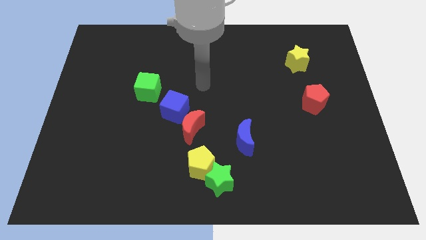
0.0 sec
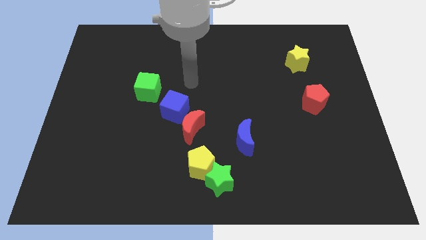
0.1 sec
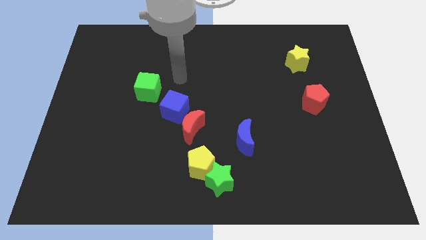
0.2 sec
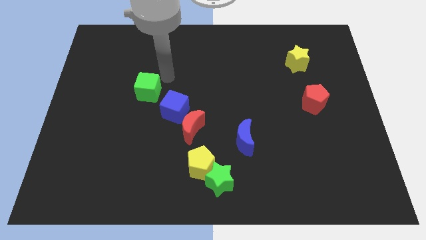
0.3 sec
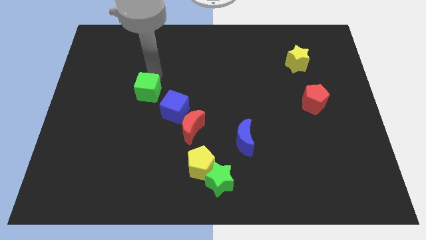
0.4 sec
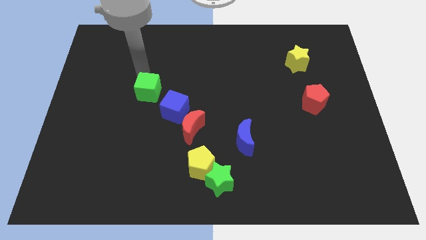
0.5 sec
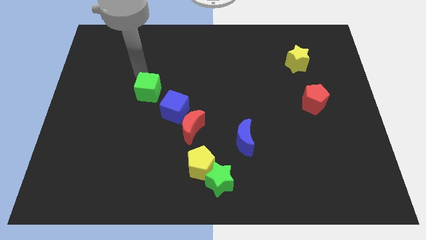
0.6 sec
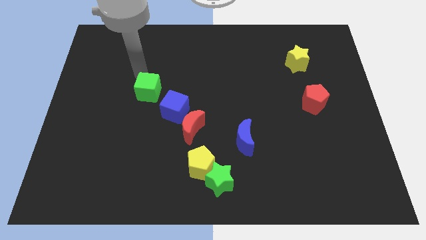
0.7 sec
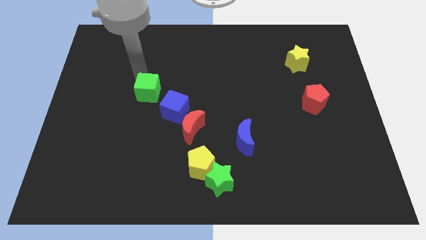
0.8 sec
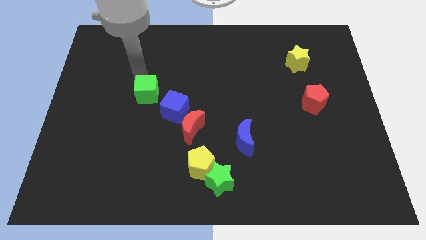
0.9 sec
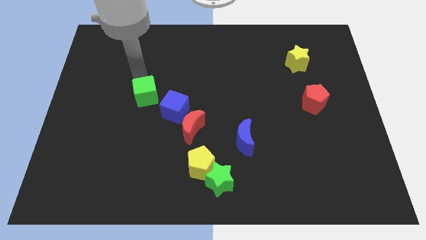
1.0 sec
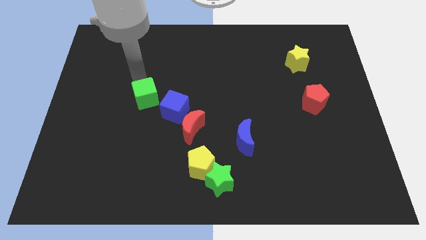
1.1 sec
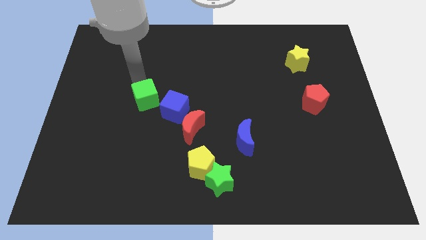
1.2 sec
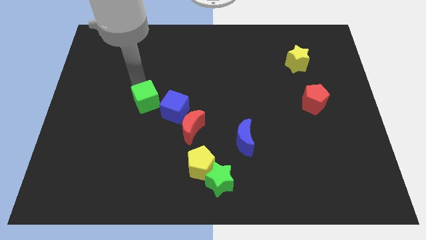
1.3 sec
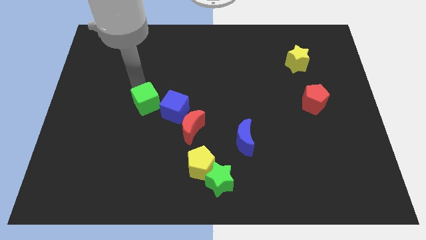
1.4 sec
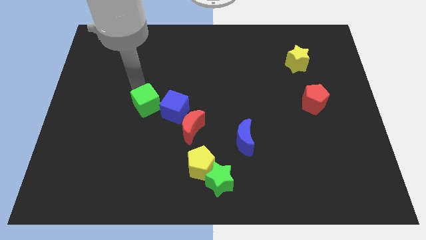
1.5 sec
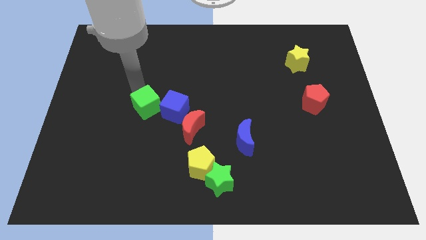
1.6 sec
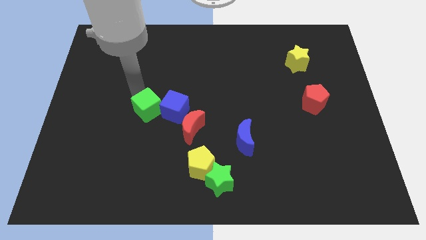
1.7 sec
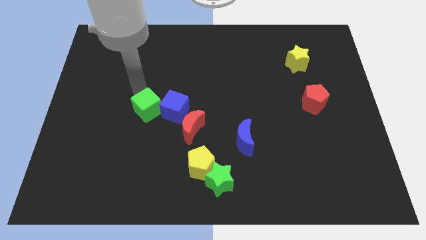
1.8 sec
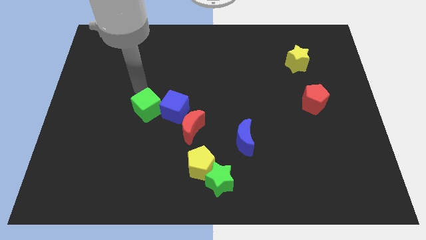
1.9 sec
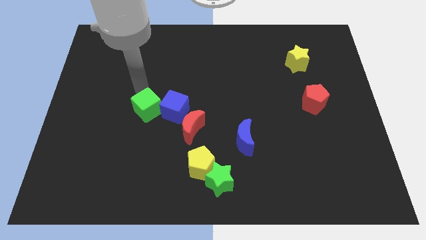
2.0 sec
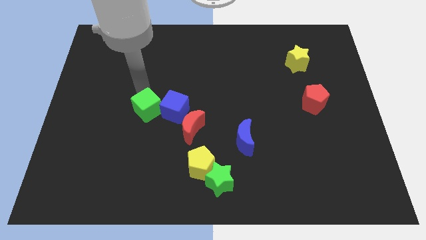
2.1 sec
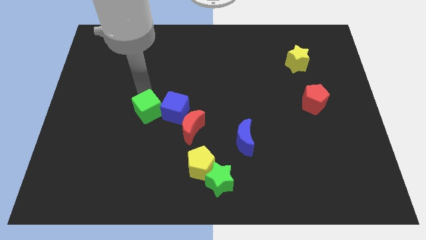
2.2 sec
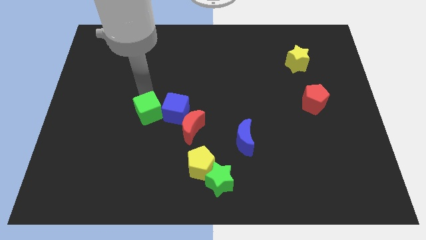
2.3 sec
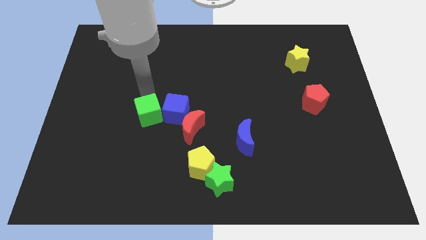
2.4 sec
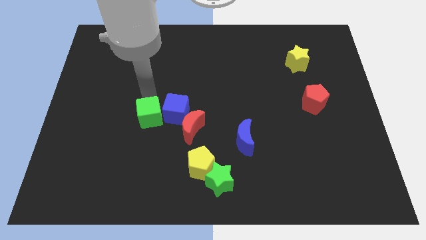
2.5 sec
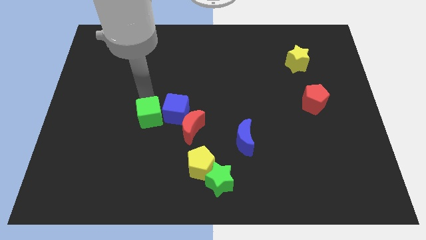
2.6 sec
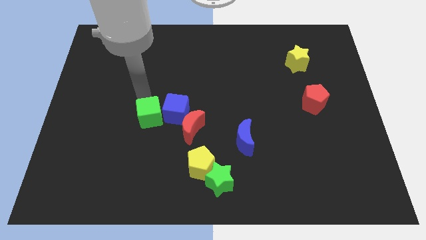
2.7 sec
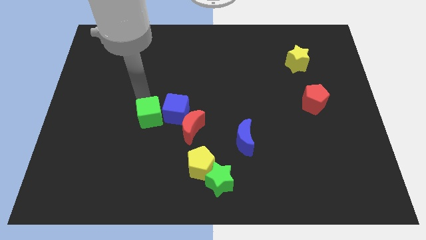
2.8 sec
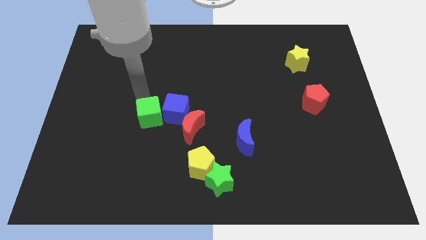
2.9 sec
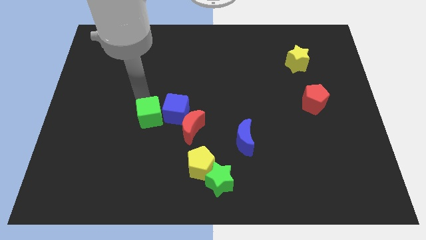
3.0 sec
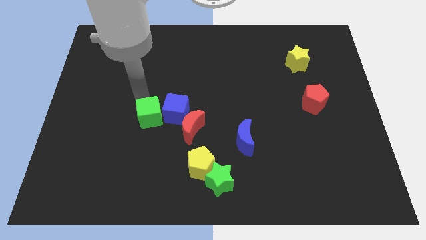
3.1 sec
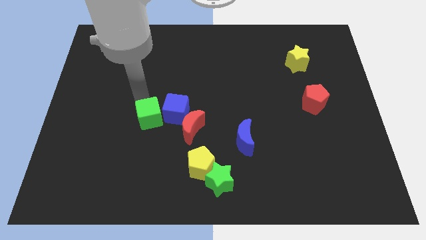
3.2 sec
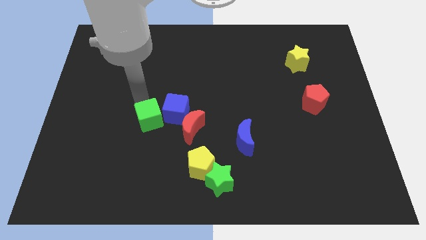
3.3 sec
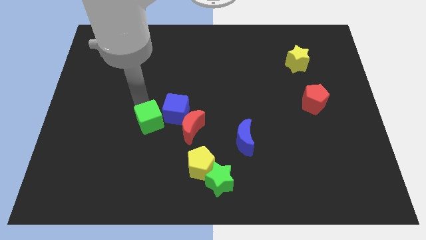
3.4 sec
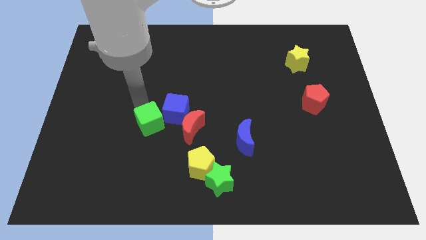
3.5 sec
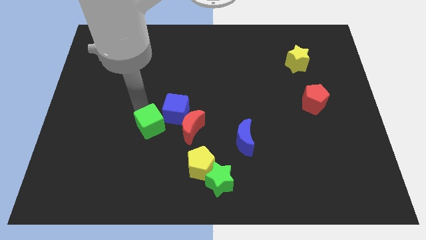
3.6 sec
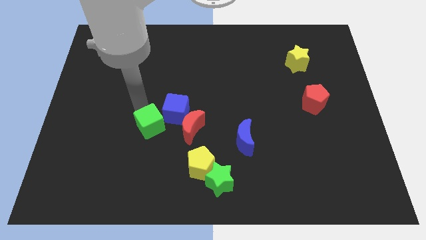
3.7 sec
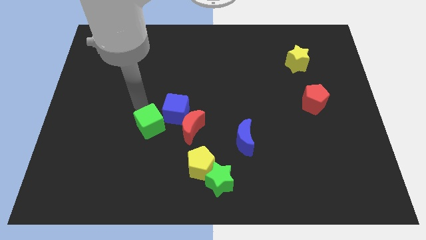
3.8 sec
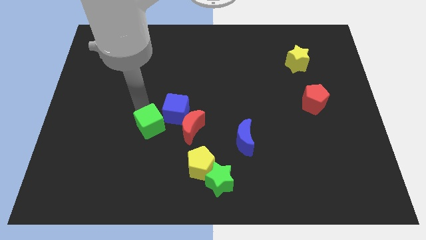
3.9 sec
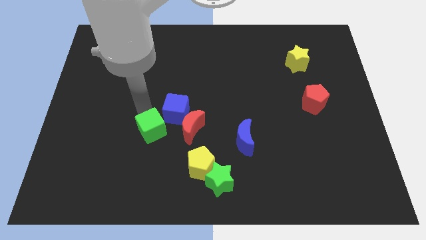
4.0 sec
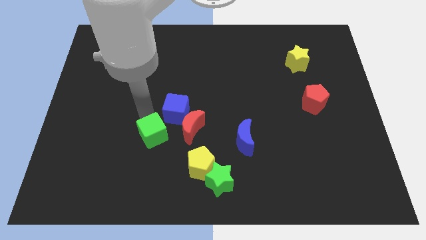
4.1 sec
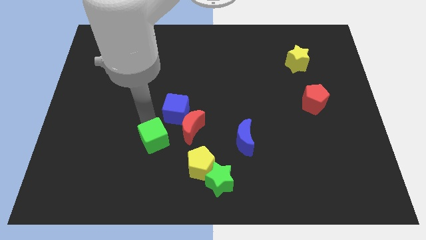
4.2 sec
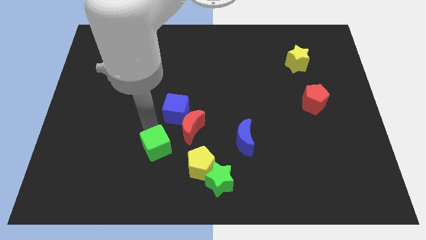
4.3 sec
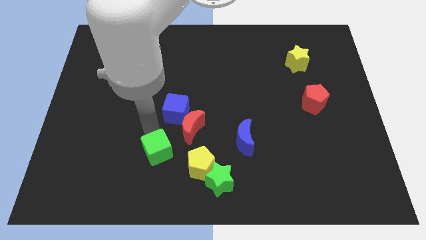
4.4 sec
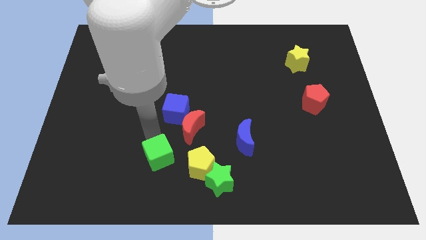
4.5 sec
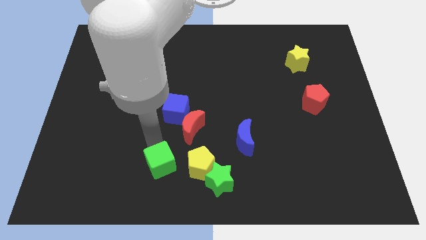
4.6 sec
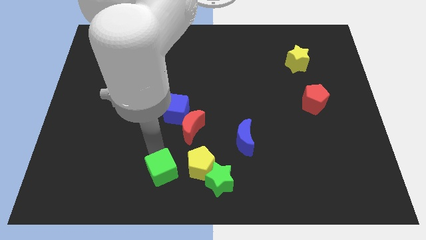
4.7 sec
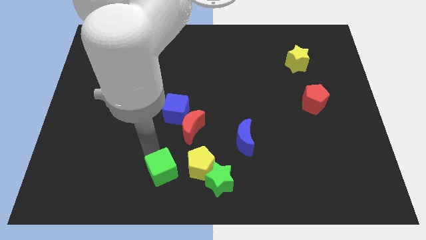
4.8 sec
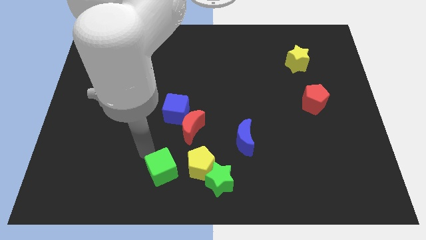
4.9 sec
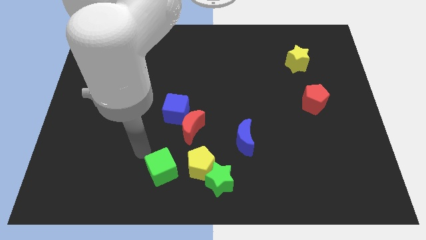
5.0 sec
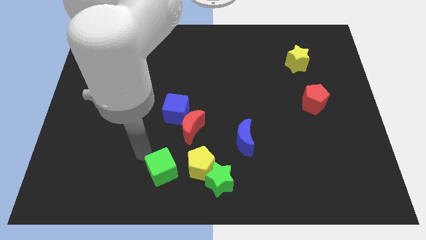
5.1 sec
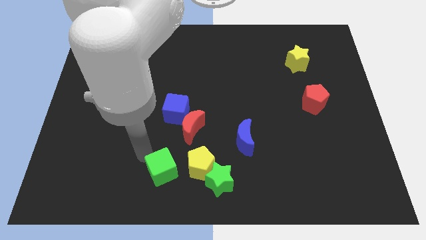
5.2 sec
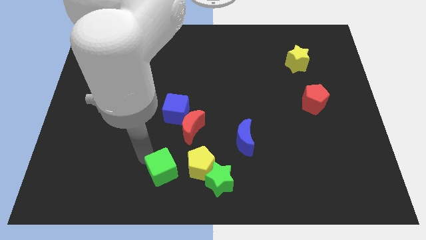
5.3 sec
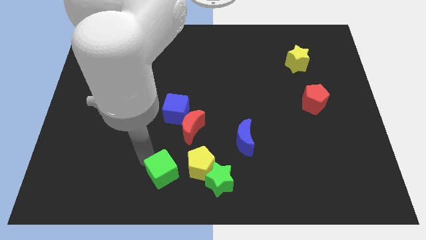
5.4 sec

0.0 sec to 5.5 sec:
slide the green cube to the bottom

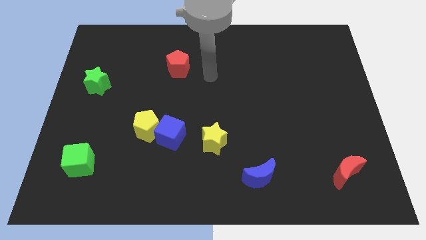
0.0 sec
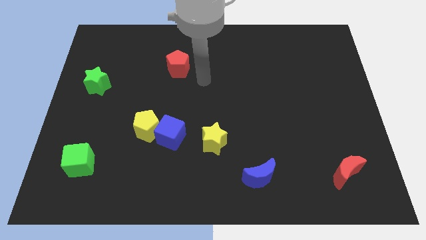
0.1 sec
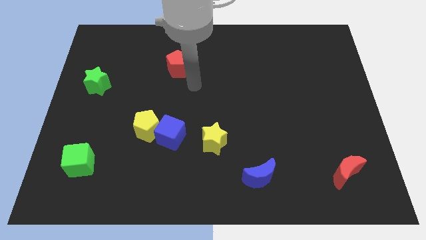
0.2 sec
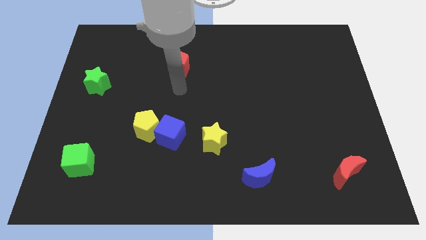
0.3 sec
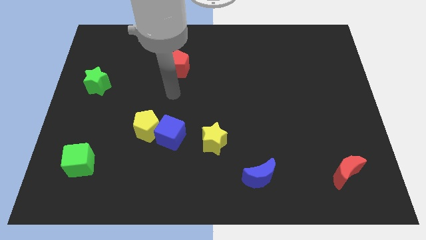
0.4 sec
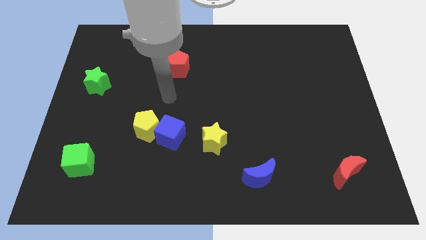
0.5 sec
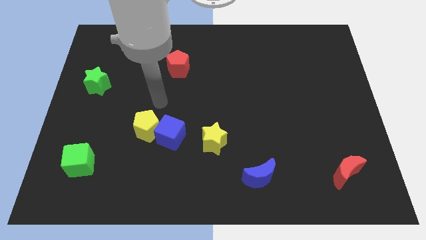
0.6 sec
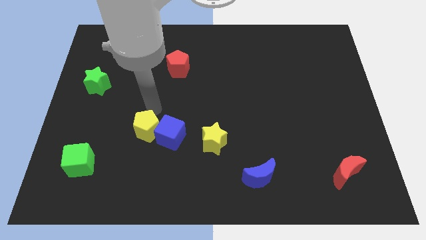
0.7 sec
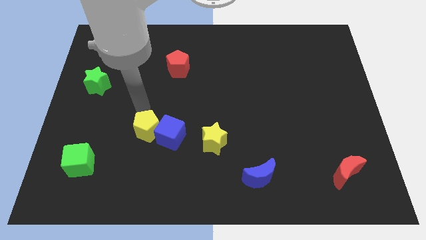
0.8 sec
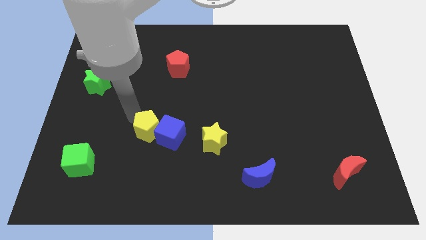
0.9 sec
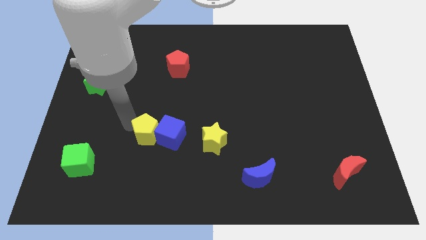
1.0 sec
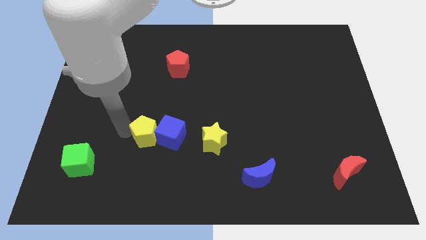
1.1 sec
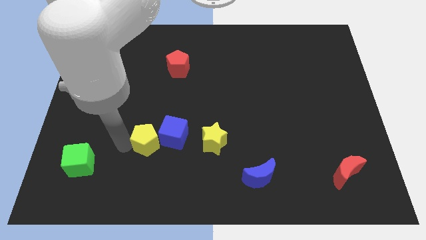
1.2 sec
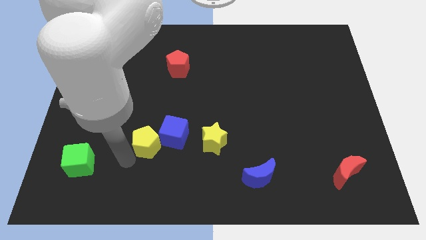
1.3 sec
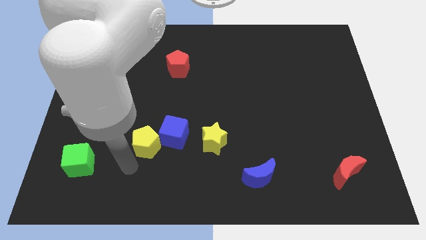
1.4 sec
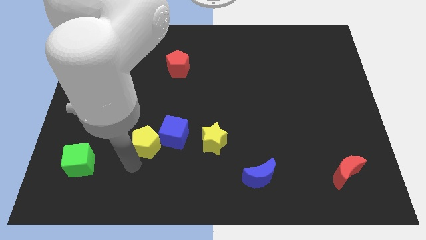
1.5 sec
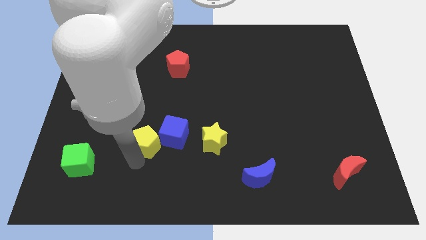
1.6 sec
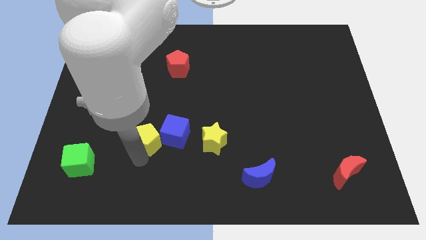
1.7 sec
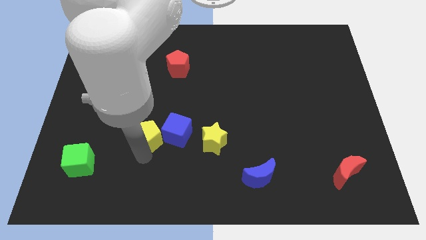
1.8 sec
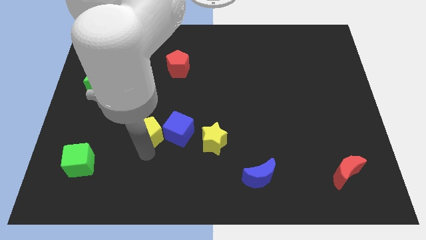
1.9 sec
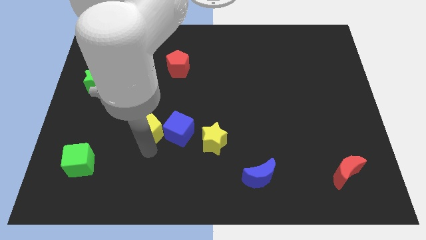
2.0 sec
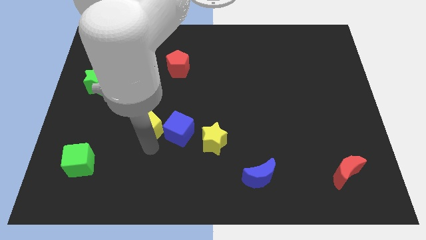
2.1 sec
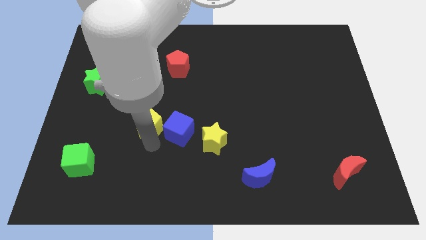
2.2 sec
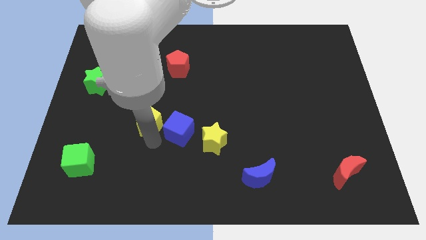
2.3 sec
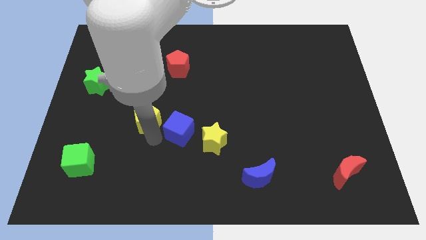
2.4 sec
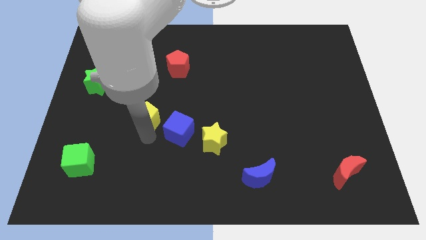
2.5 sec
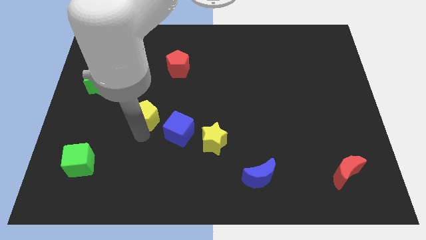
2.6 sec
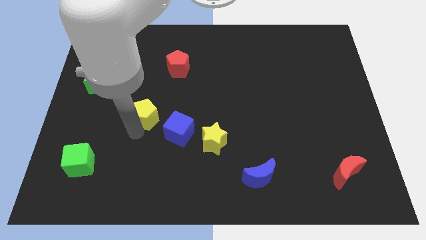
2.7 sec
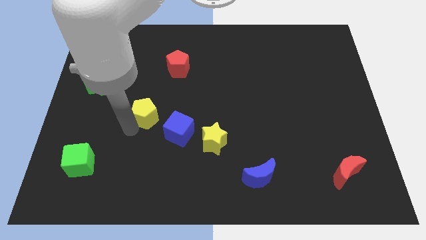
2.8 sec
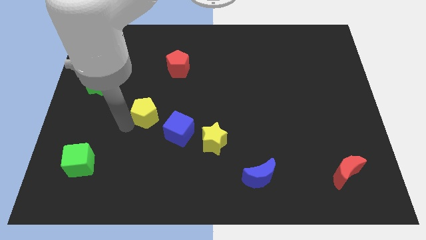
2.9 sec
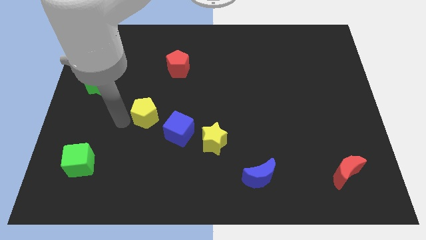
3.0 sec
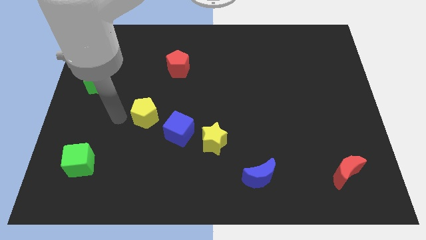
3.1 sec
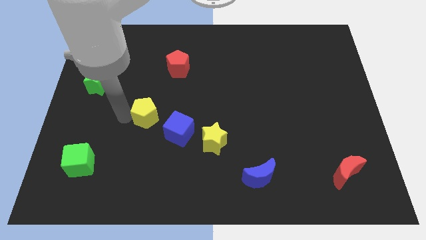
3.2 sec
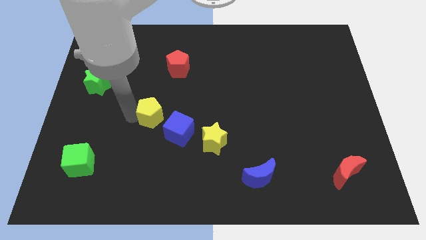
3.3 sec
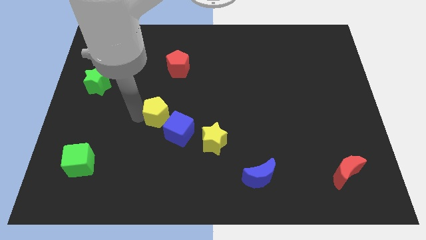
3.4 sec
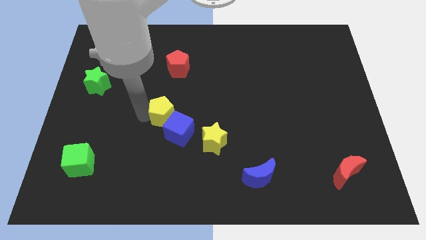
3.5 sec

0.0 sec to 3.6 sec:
slide the yellow pentagon to the center of the board
